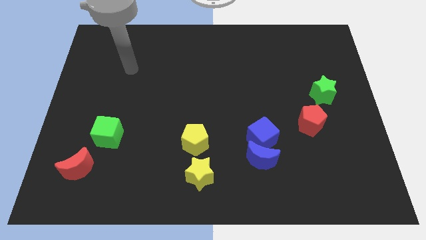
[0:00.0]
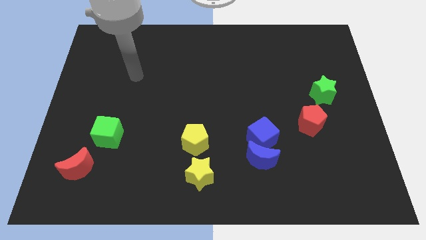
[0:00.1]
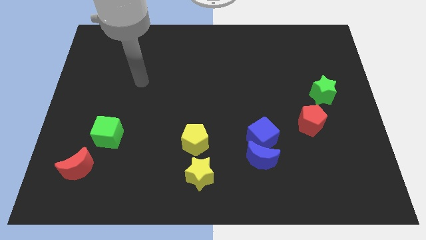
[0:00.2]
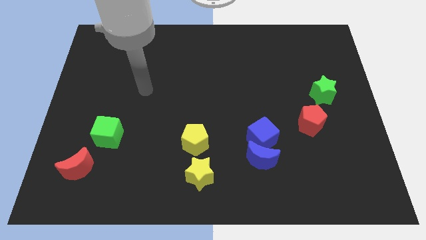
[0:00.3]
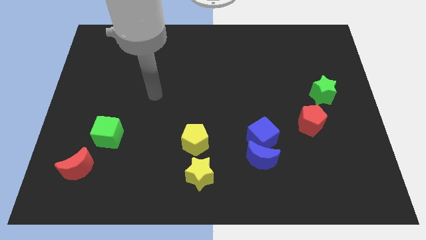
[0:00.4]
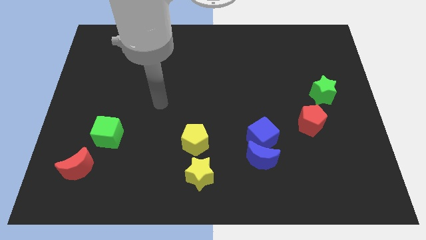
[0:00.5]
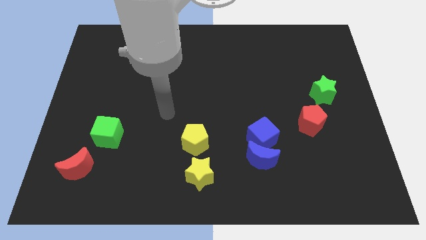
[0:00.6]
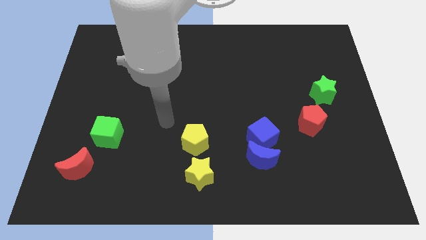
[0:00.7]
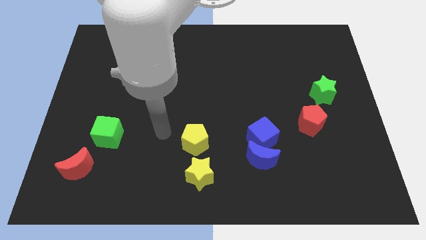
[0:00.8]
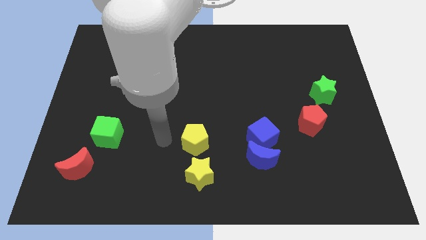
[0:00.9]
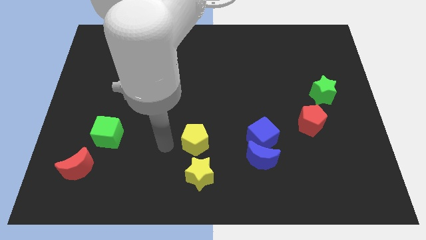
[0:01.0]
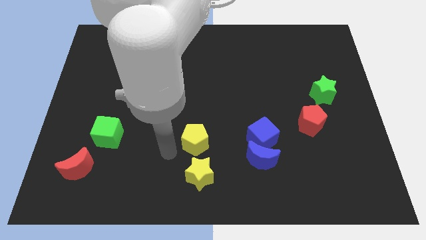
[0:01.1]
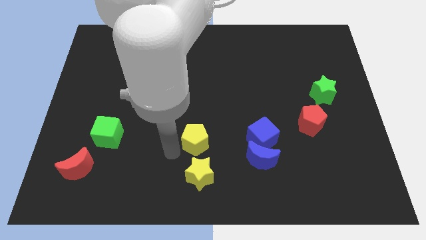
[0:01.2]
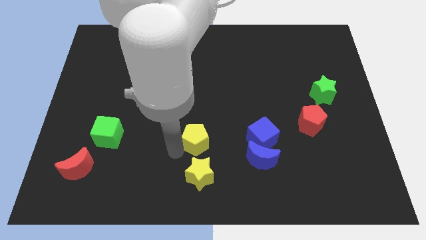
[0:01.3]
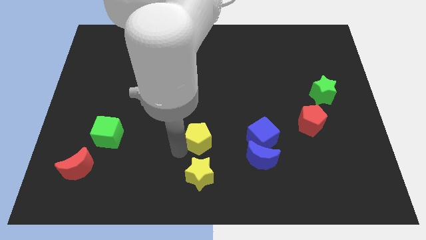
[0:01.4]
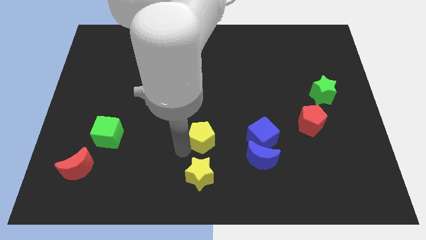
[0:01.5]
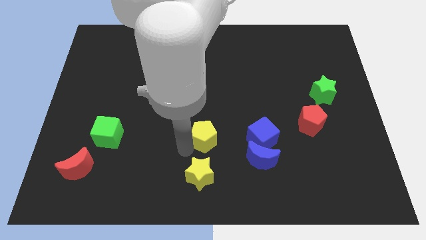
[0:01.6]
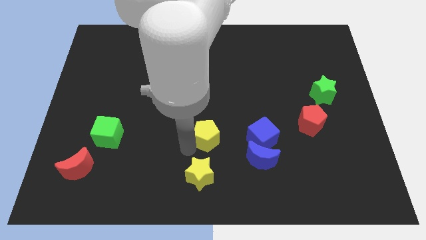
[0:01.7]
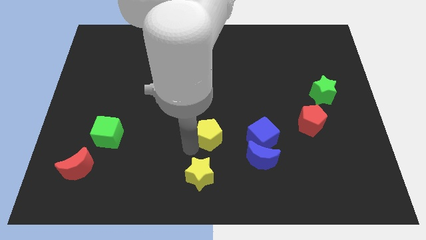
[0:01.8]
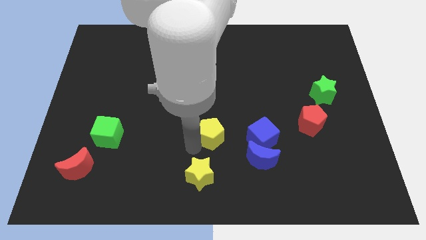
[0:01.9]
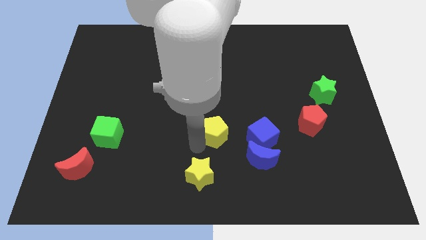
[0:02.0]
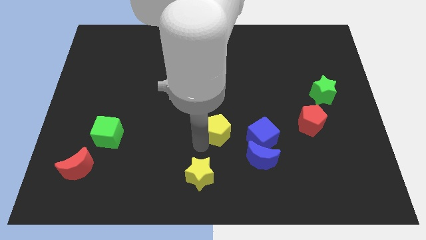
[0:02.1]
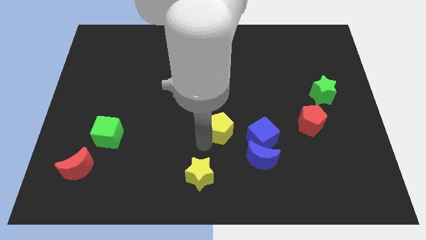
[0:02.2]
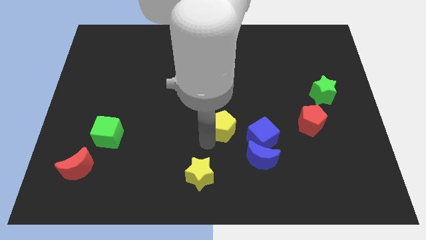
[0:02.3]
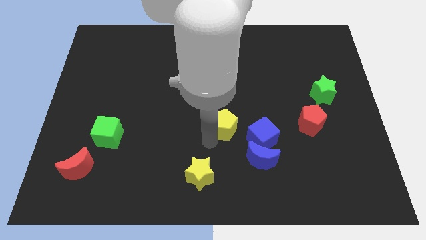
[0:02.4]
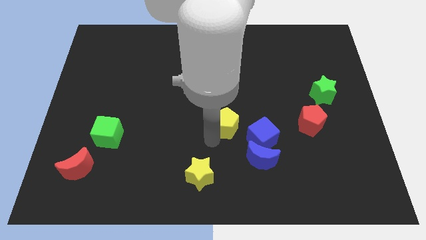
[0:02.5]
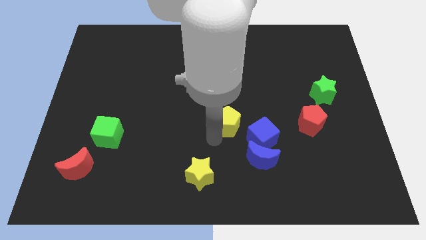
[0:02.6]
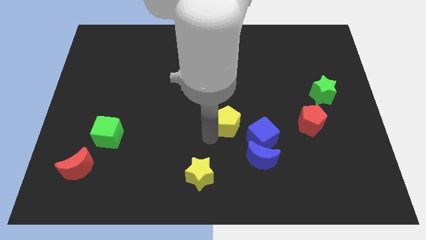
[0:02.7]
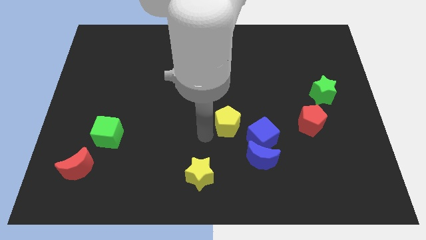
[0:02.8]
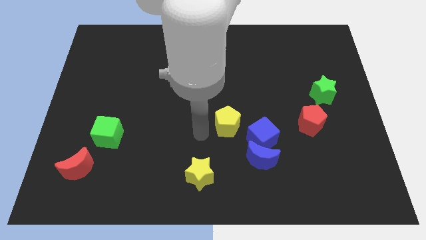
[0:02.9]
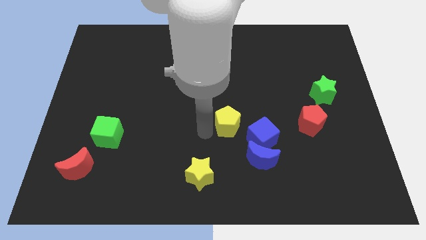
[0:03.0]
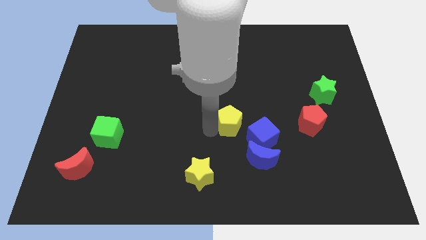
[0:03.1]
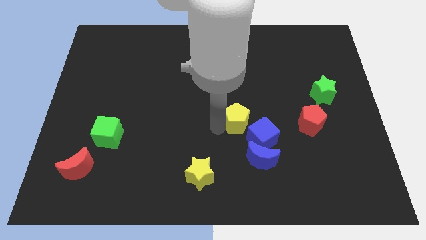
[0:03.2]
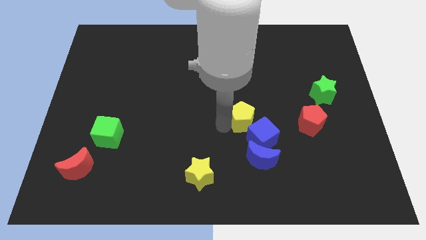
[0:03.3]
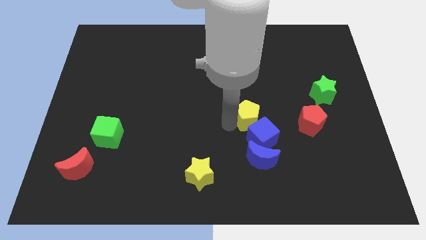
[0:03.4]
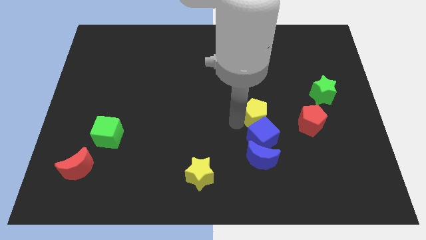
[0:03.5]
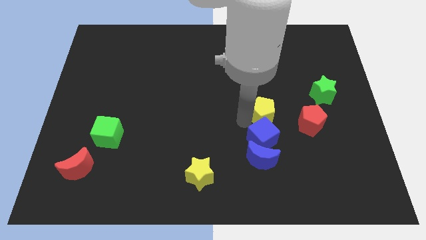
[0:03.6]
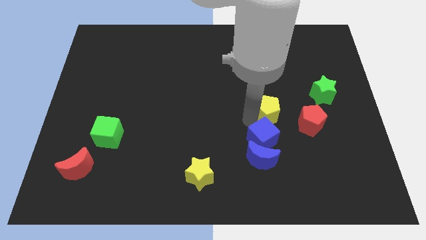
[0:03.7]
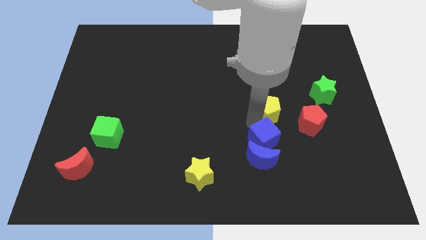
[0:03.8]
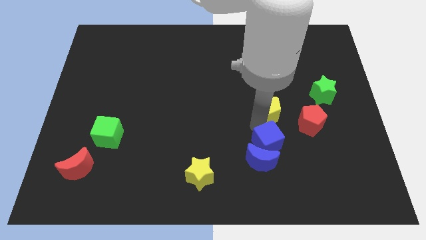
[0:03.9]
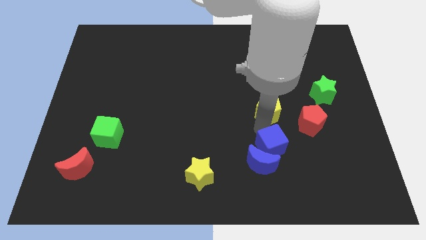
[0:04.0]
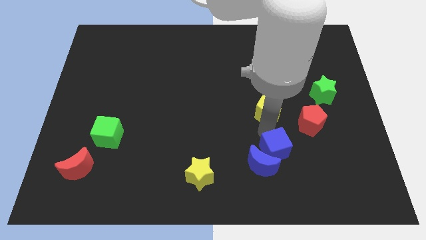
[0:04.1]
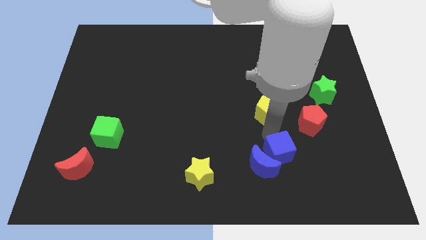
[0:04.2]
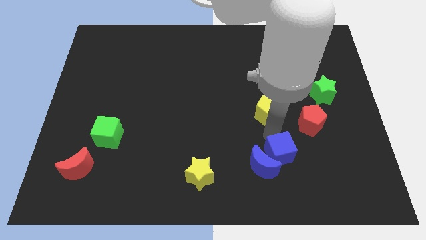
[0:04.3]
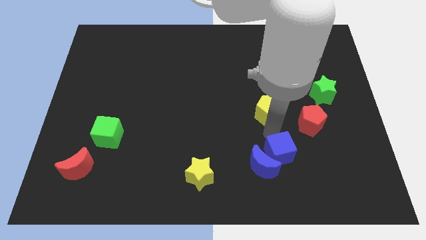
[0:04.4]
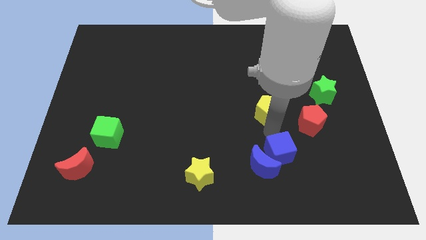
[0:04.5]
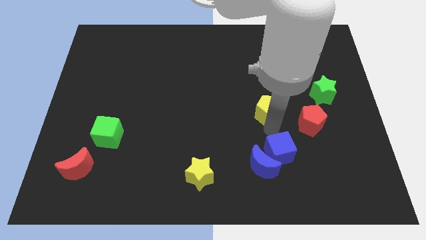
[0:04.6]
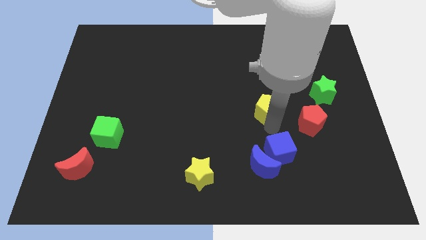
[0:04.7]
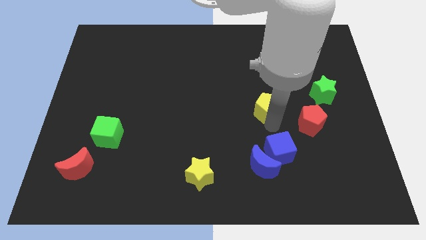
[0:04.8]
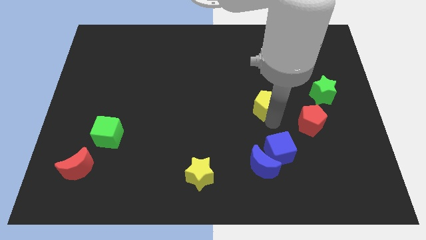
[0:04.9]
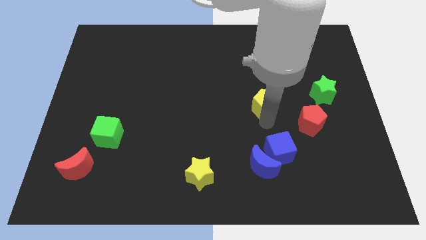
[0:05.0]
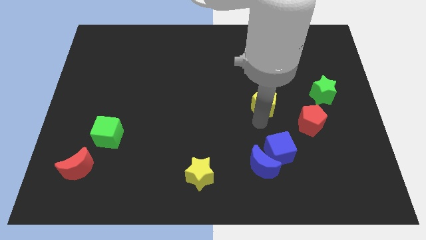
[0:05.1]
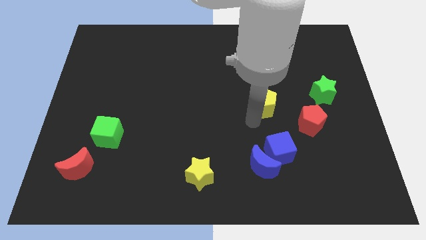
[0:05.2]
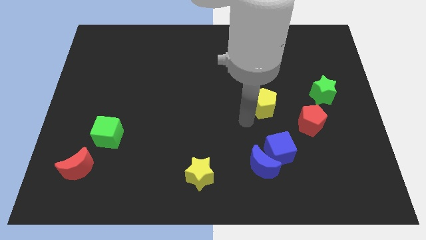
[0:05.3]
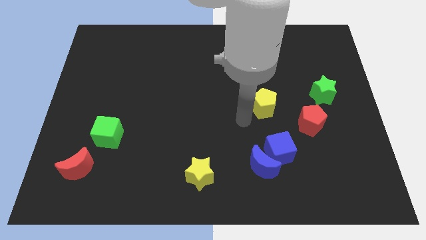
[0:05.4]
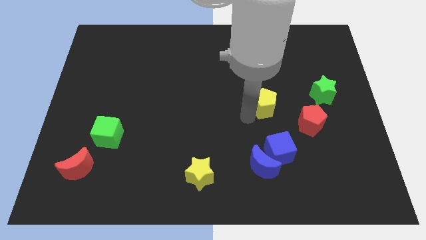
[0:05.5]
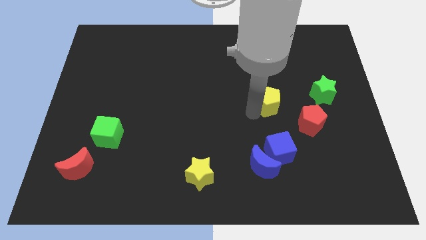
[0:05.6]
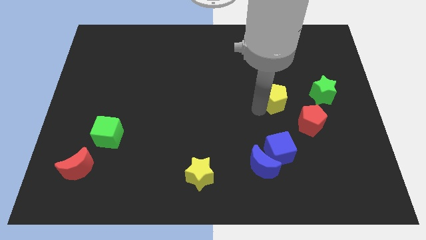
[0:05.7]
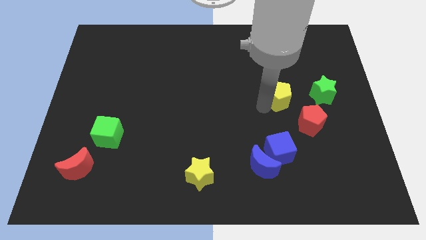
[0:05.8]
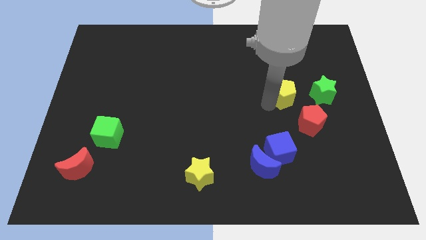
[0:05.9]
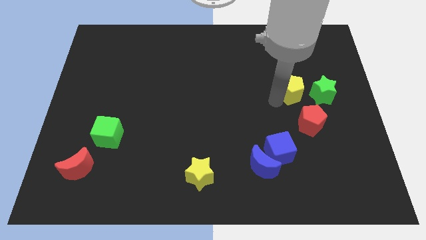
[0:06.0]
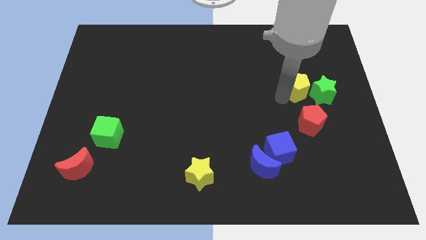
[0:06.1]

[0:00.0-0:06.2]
slide the yellow pentagon to the top left side of the green star
